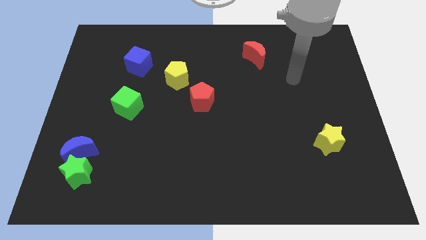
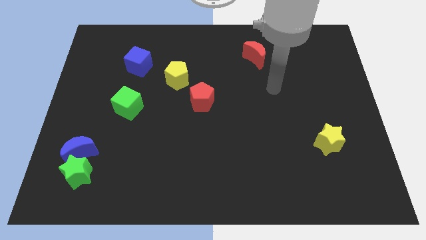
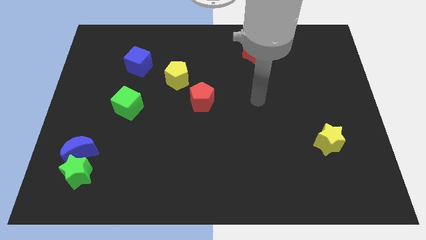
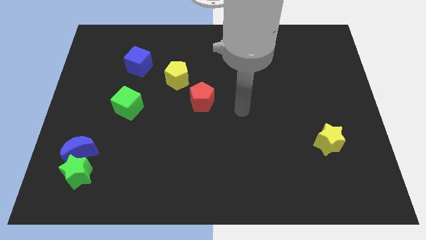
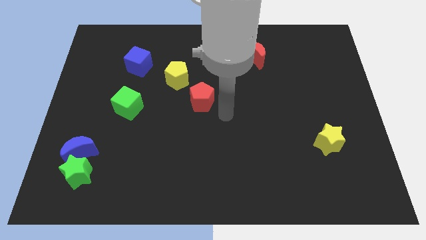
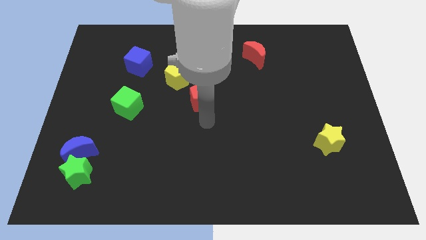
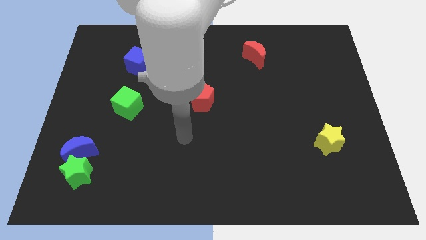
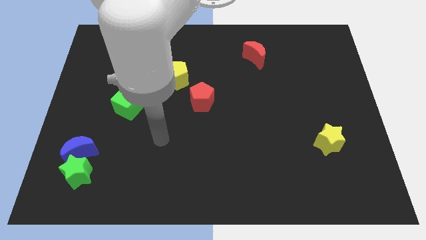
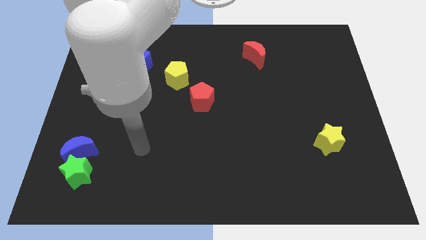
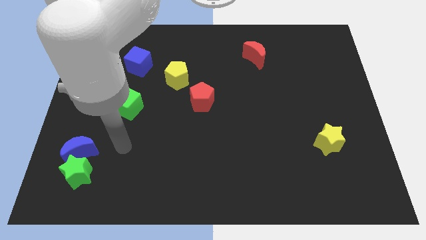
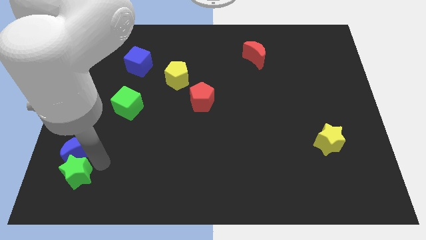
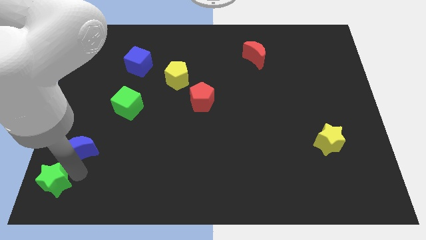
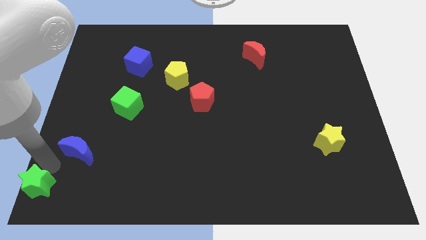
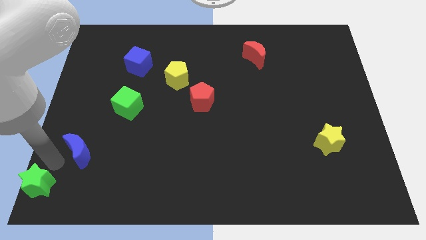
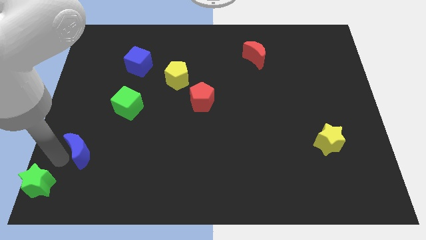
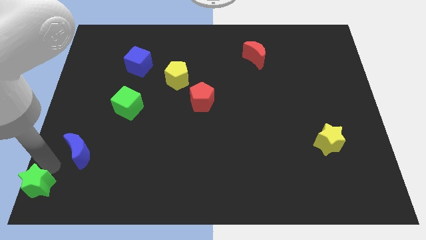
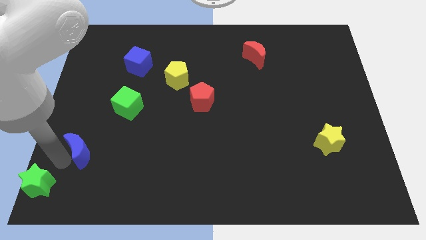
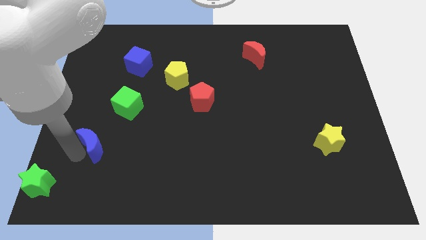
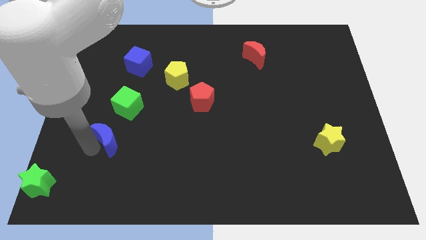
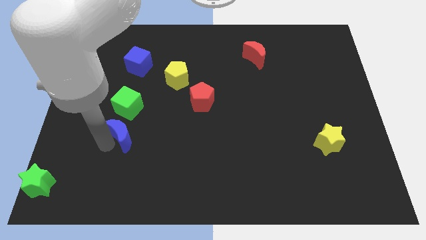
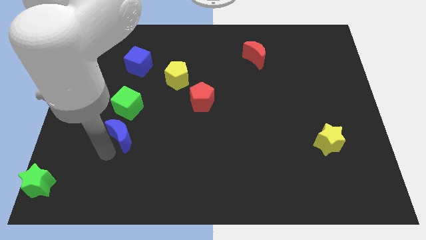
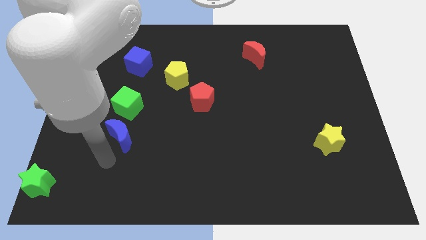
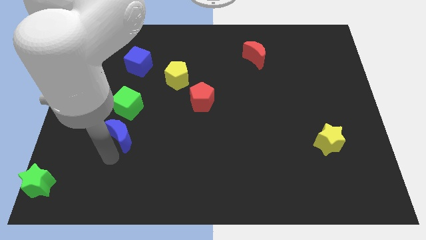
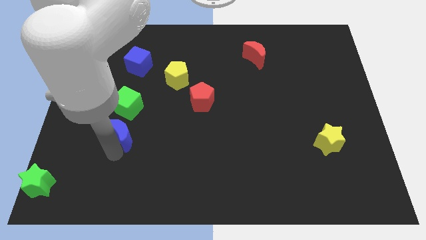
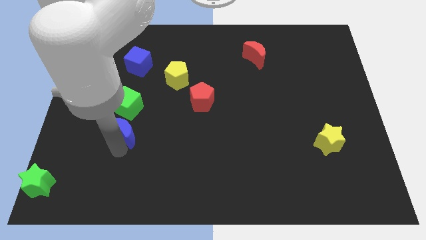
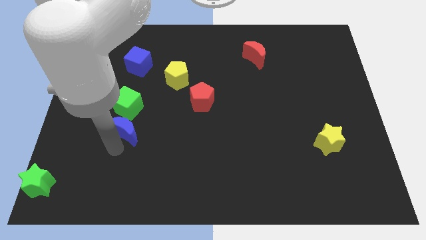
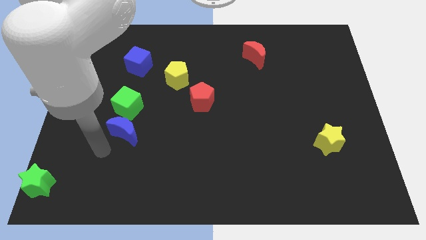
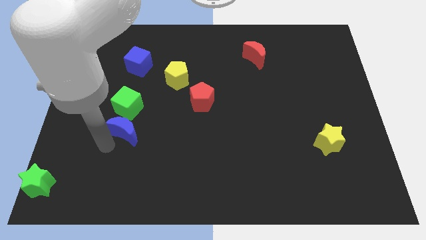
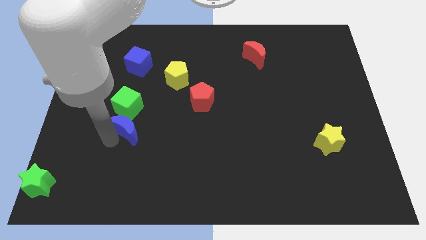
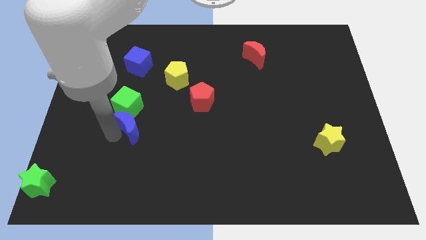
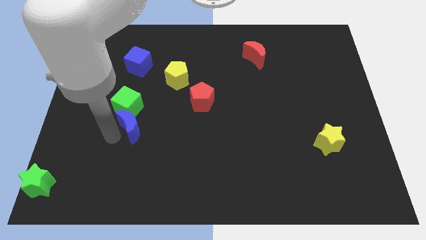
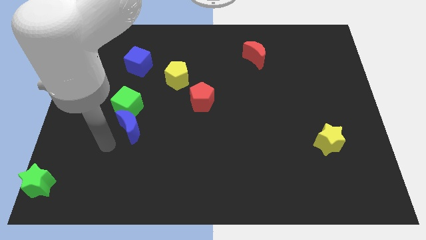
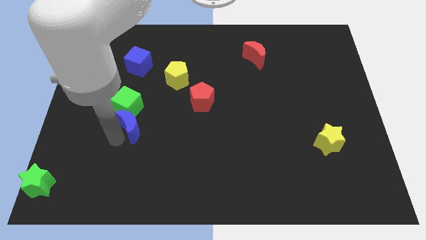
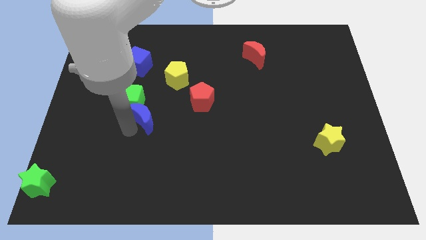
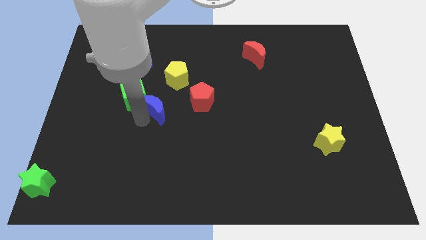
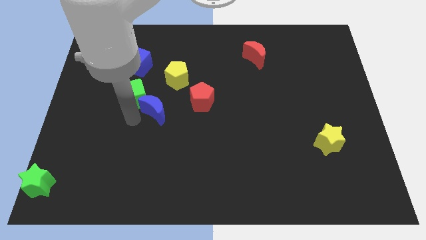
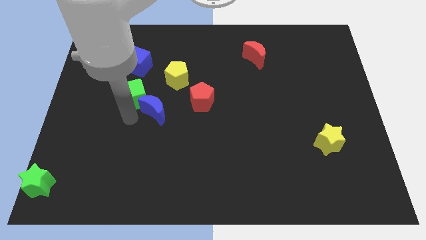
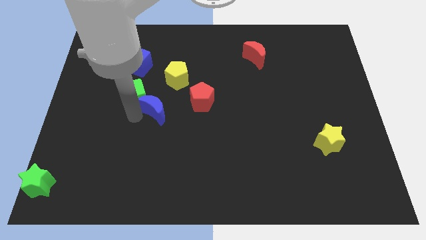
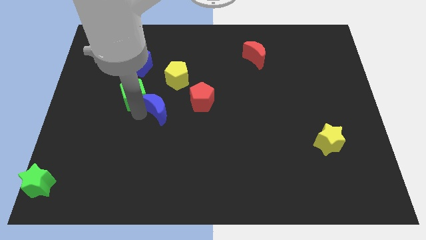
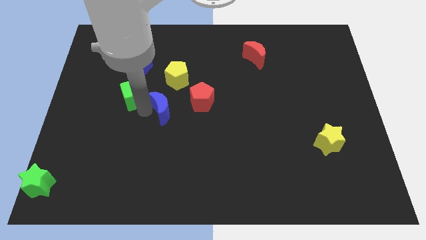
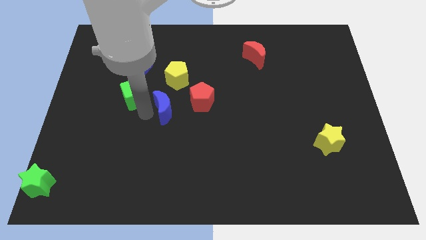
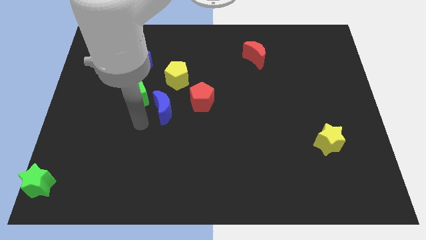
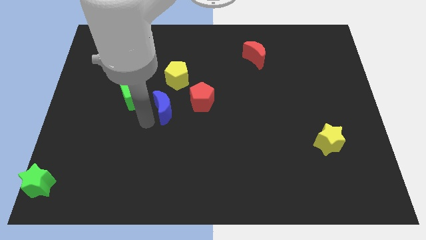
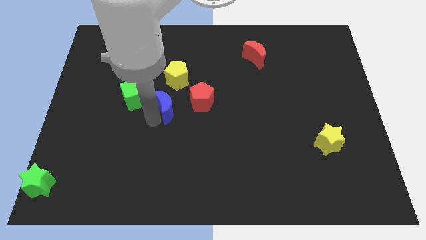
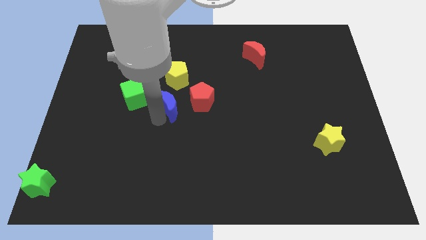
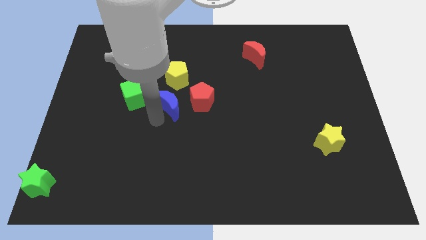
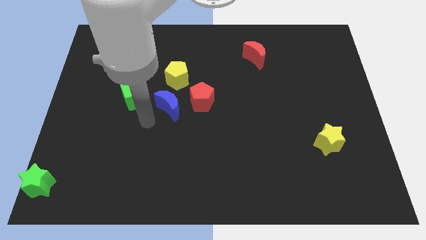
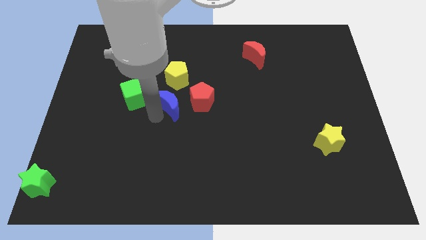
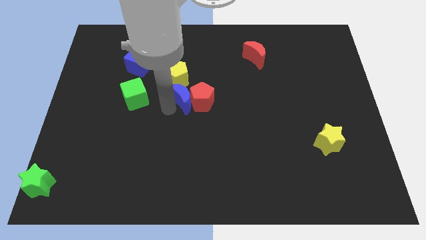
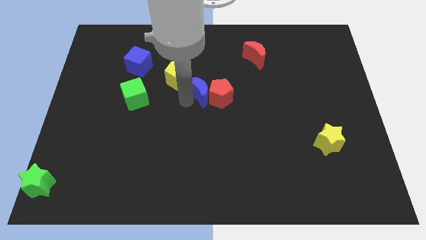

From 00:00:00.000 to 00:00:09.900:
push the blue moon just right of the yellow pentagon

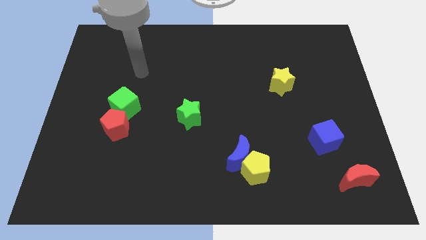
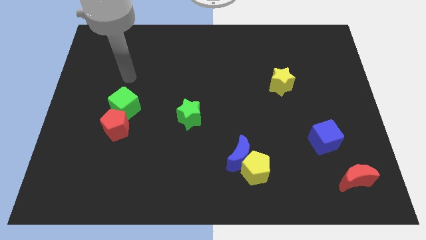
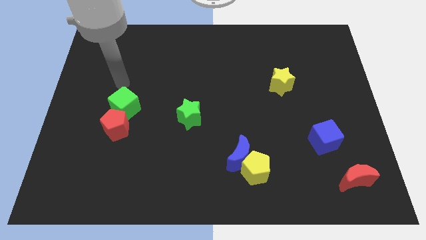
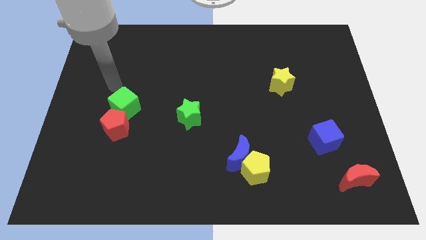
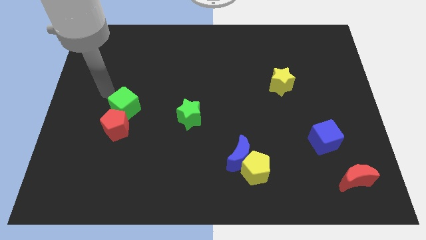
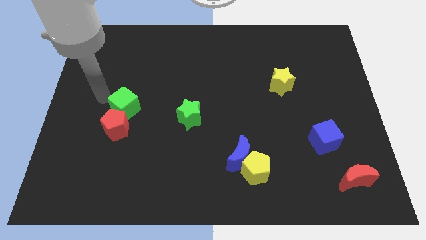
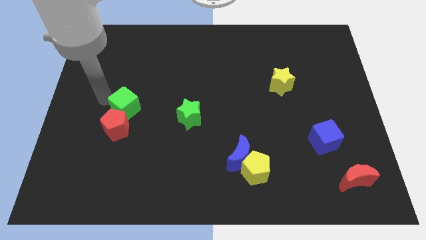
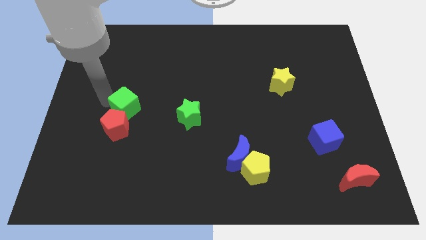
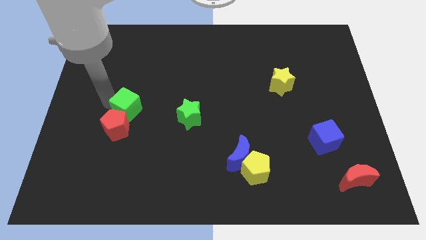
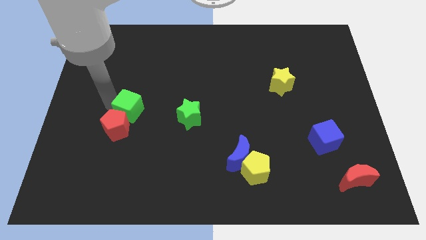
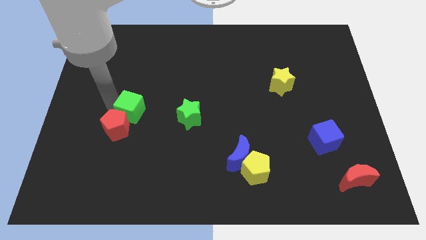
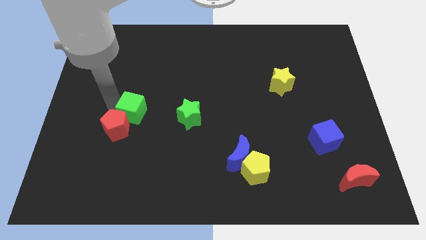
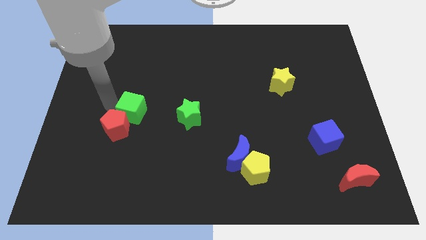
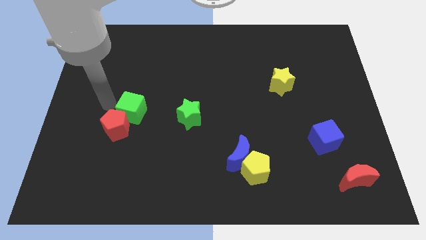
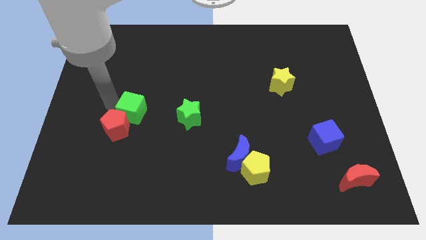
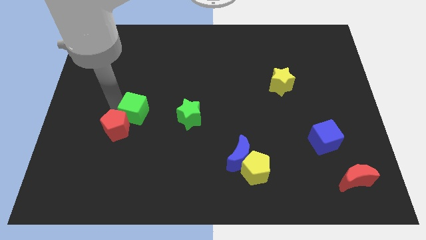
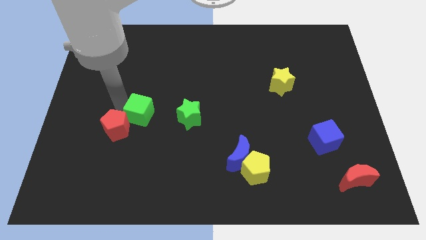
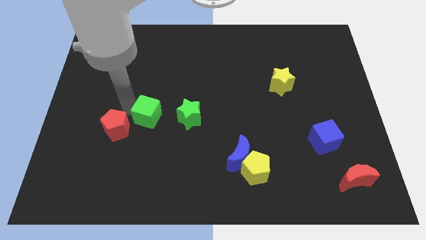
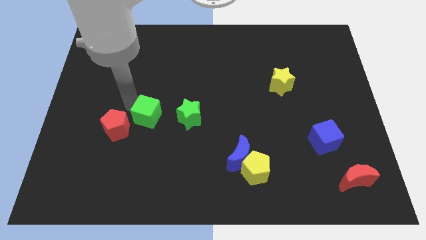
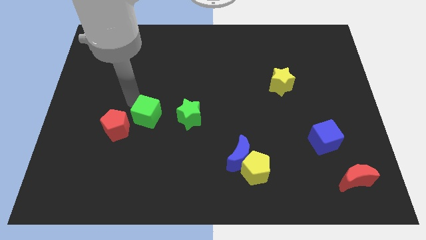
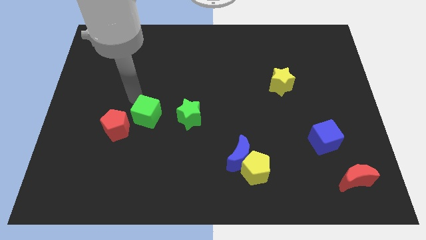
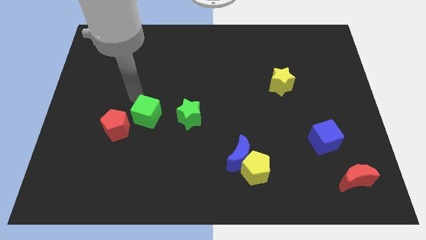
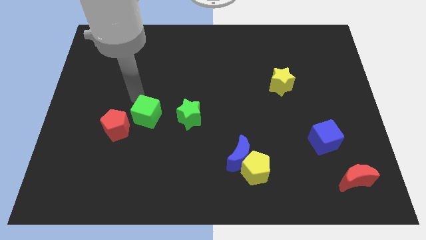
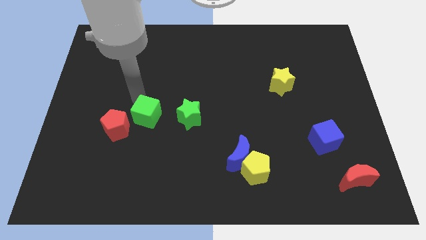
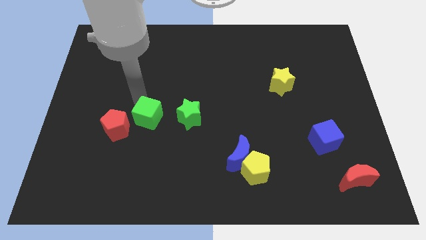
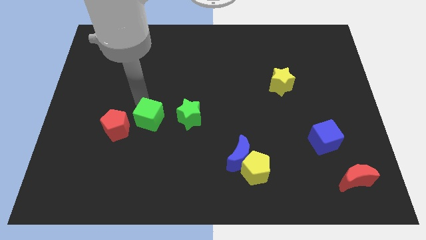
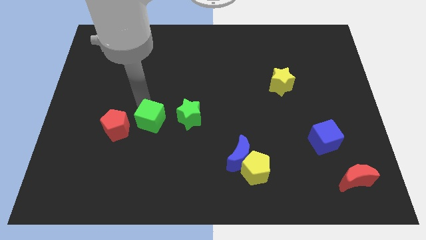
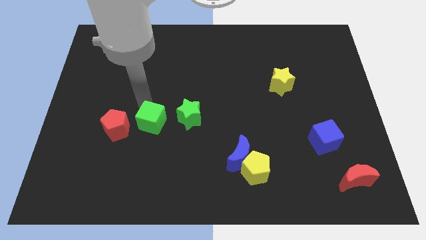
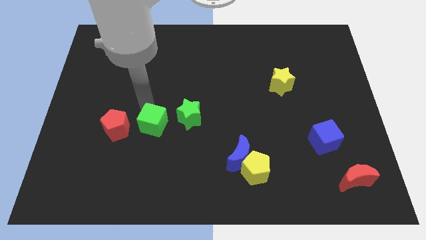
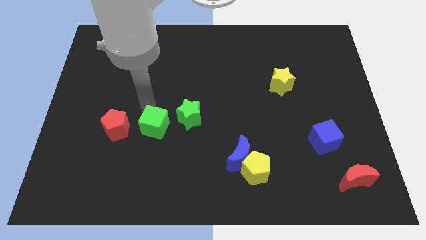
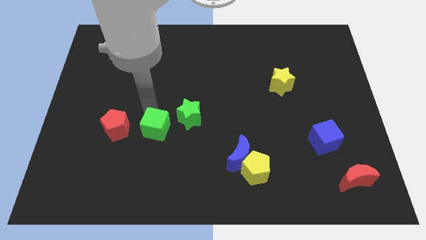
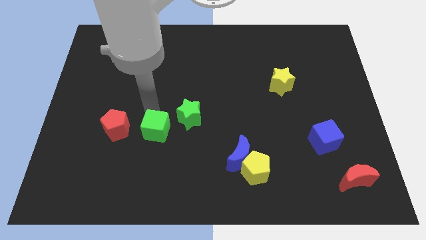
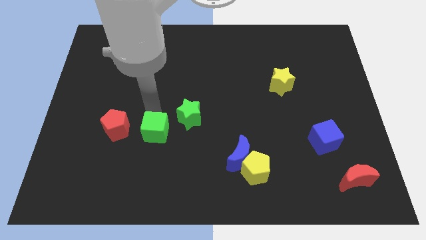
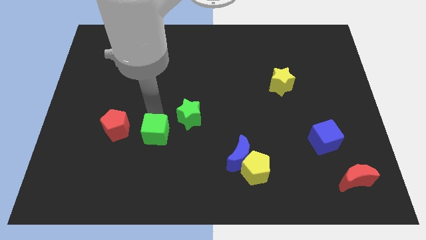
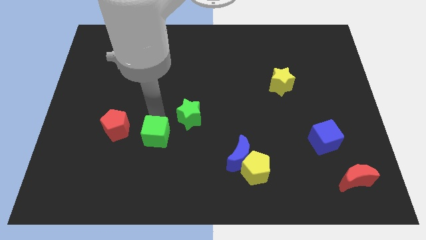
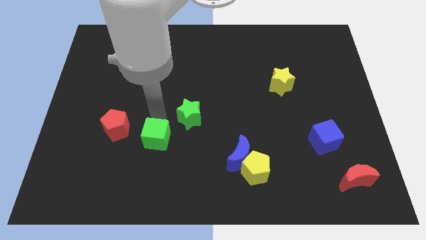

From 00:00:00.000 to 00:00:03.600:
put the green cube diagonally down and to the right of the red pentagon
